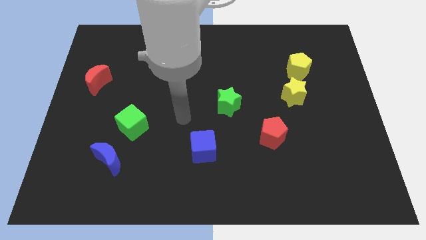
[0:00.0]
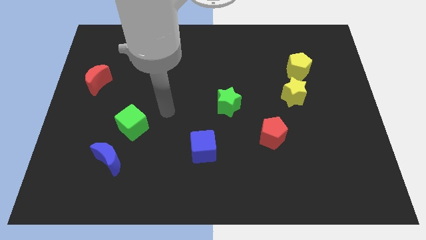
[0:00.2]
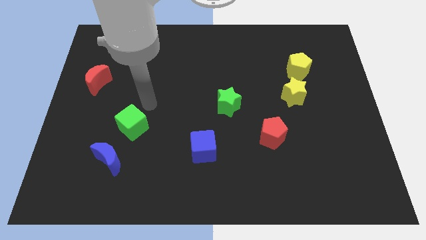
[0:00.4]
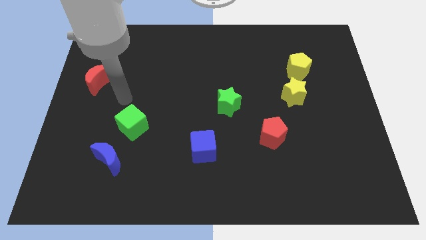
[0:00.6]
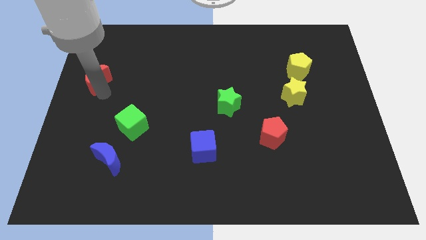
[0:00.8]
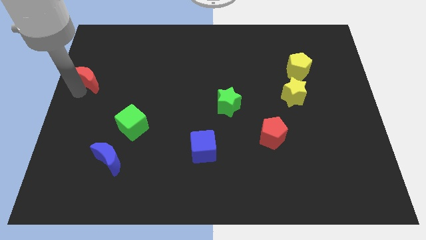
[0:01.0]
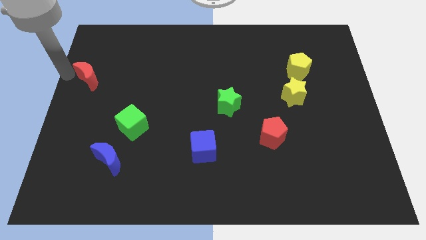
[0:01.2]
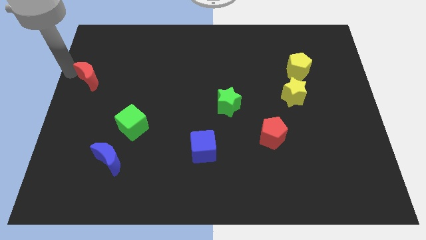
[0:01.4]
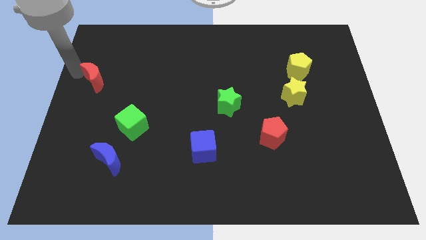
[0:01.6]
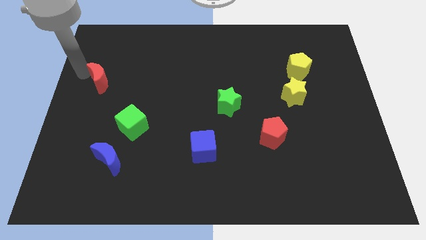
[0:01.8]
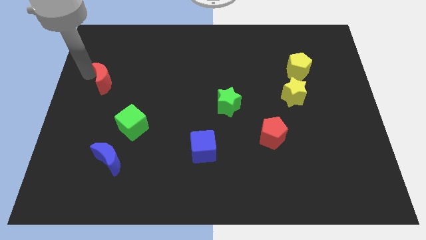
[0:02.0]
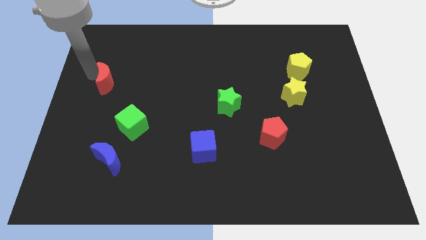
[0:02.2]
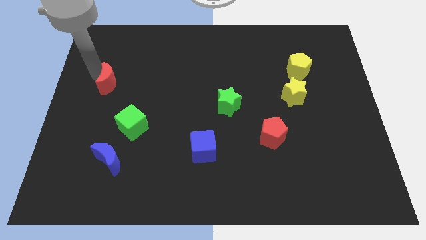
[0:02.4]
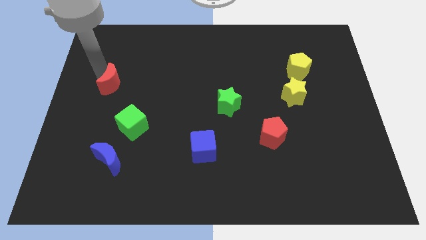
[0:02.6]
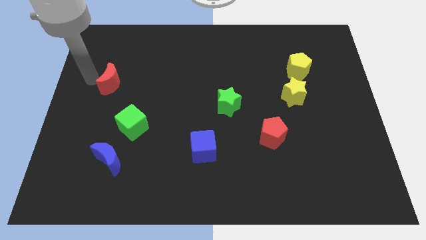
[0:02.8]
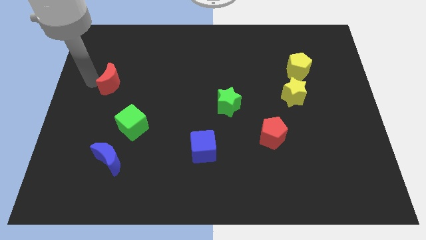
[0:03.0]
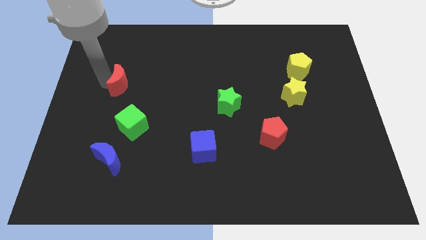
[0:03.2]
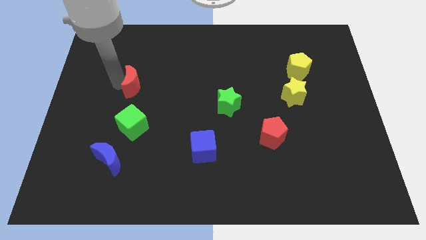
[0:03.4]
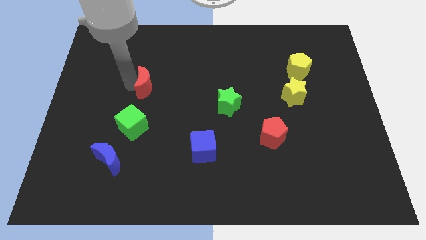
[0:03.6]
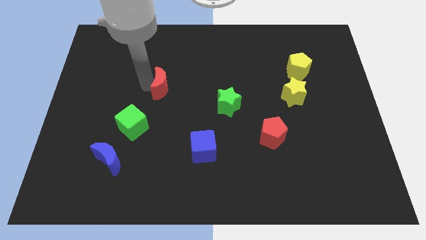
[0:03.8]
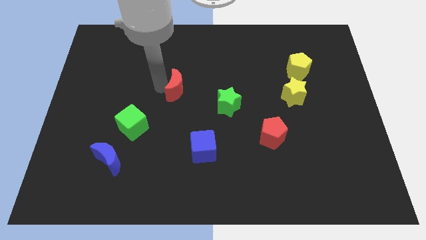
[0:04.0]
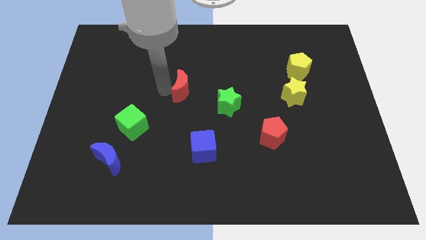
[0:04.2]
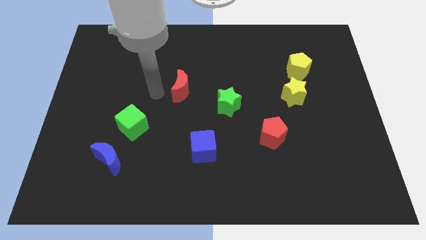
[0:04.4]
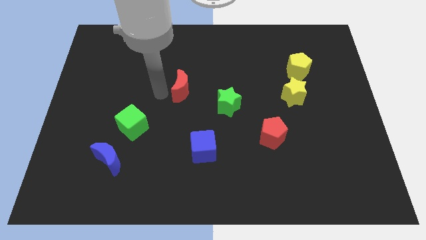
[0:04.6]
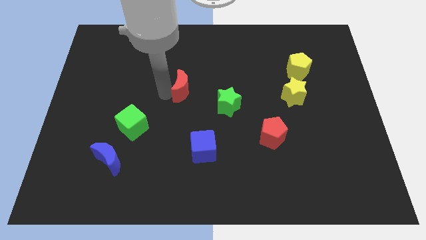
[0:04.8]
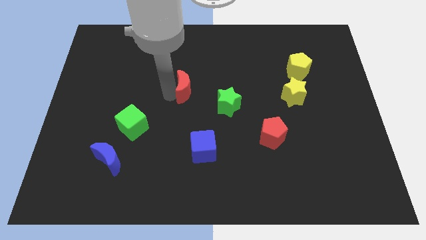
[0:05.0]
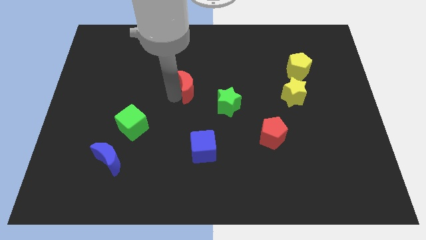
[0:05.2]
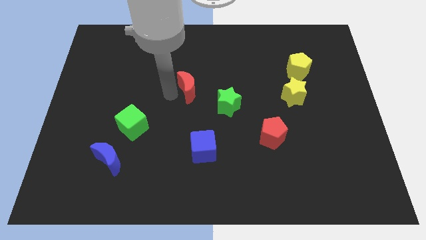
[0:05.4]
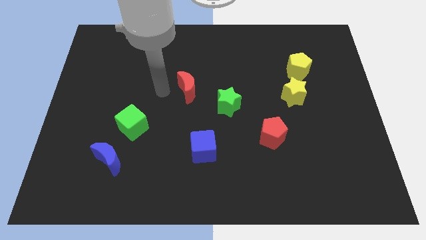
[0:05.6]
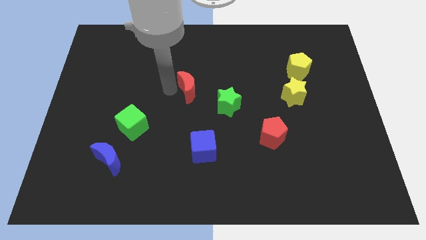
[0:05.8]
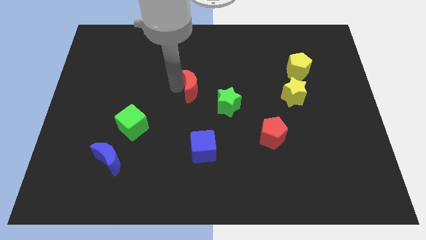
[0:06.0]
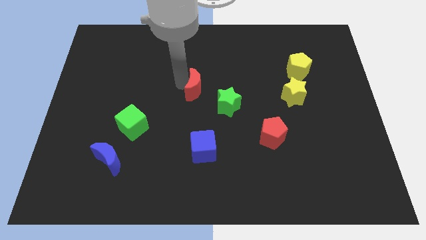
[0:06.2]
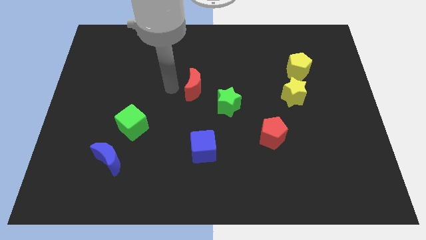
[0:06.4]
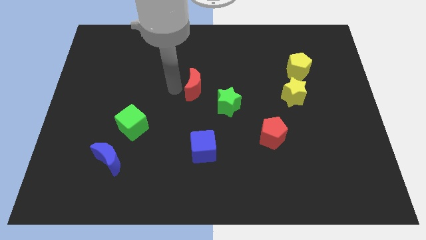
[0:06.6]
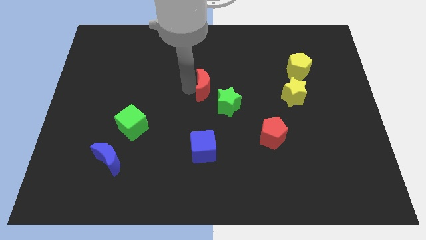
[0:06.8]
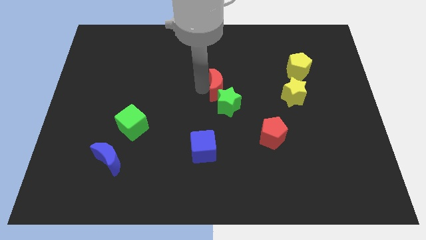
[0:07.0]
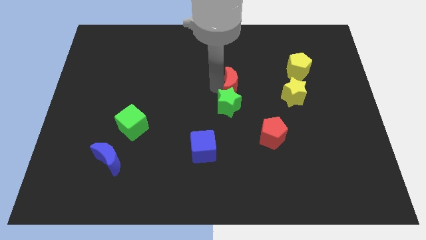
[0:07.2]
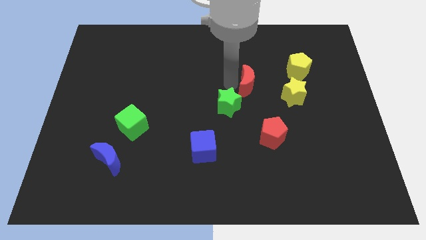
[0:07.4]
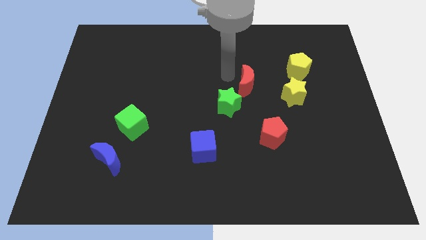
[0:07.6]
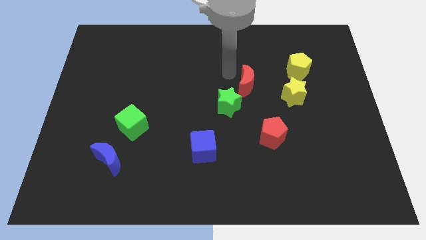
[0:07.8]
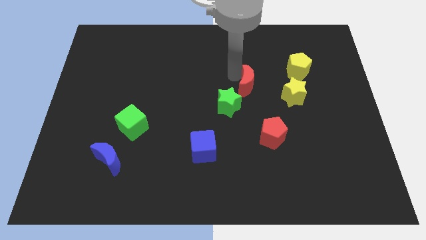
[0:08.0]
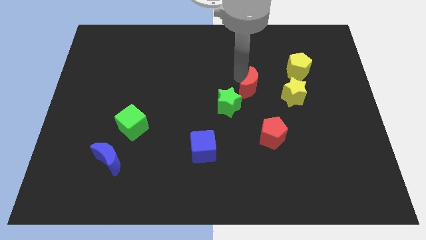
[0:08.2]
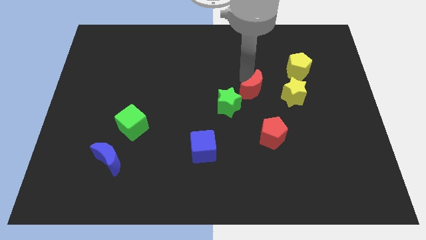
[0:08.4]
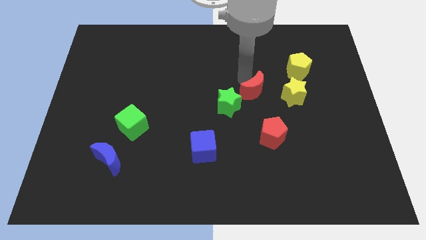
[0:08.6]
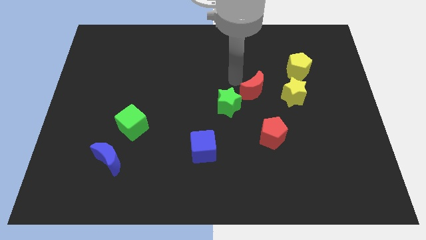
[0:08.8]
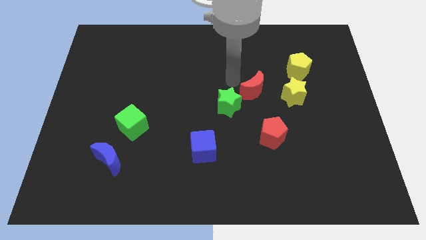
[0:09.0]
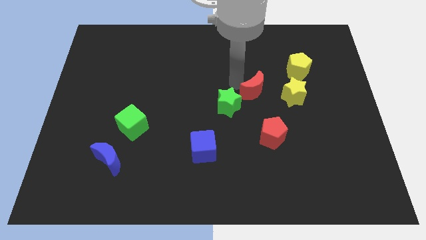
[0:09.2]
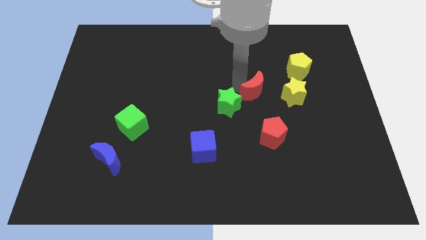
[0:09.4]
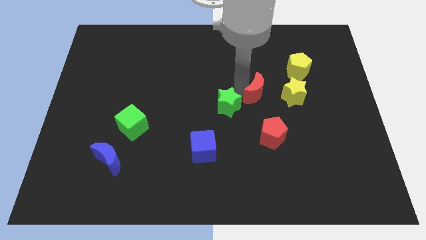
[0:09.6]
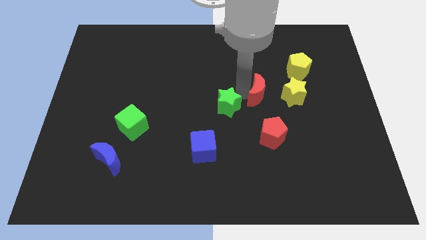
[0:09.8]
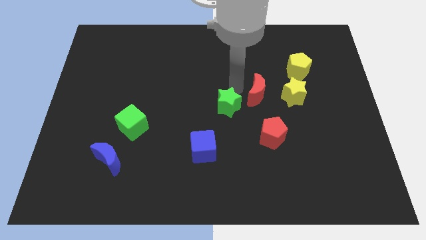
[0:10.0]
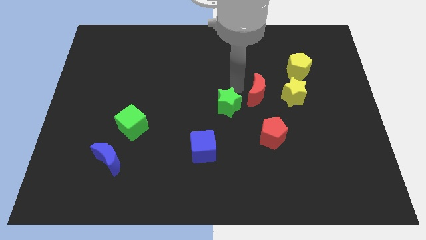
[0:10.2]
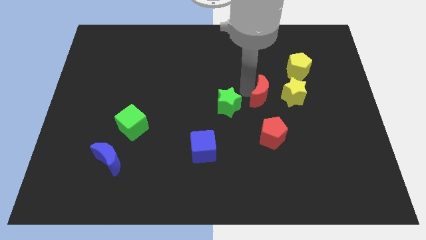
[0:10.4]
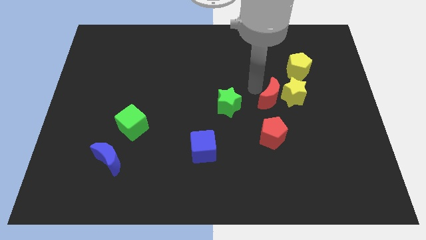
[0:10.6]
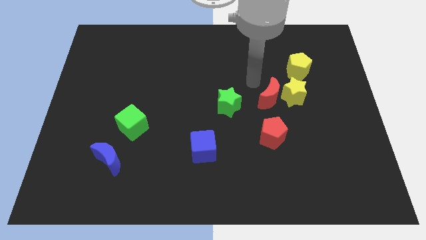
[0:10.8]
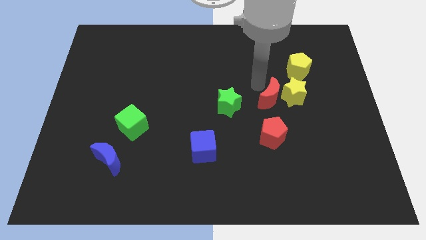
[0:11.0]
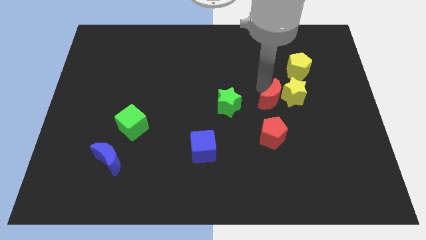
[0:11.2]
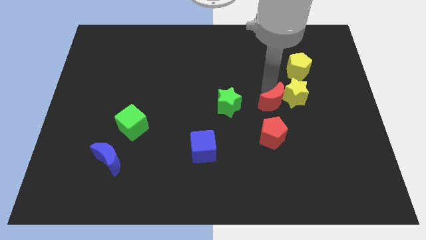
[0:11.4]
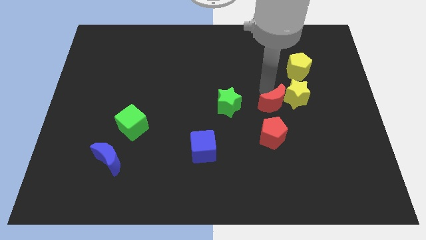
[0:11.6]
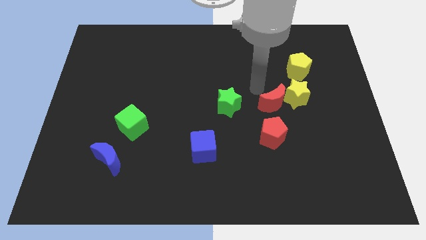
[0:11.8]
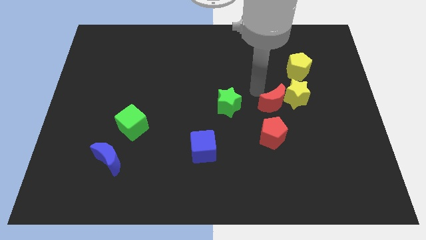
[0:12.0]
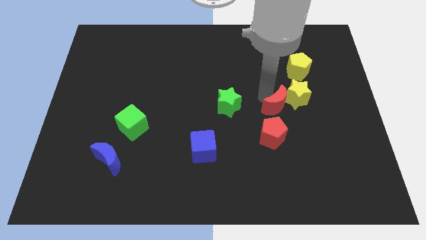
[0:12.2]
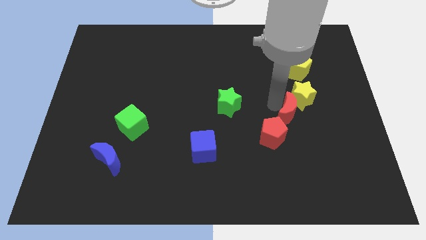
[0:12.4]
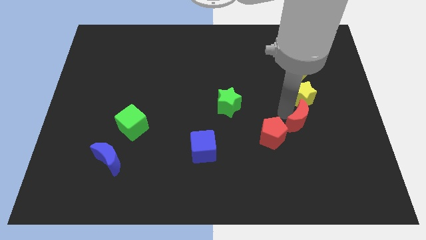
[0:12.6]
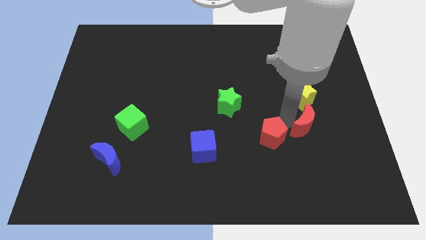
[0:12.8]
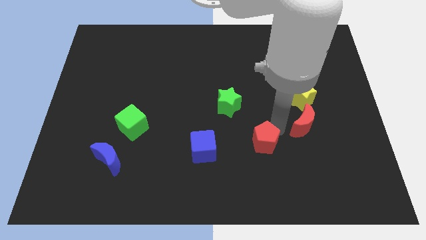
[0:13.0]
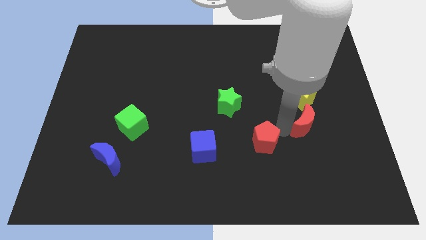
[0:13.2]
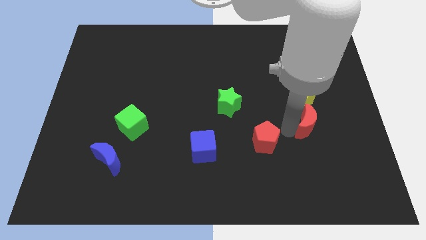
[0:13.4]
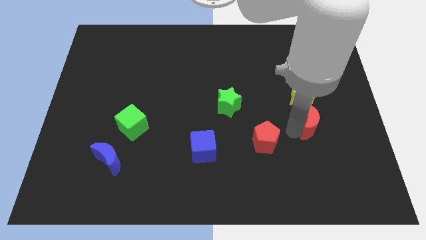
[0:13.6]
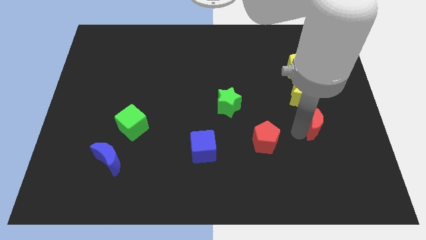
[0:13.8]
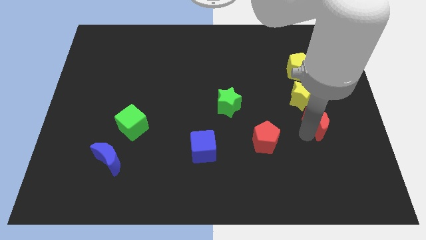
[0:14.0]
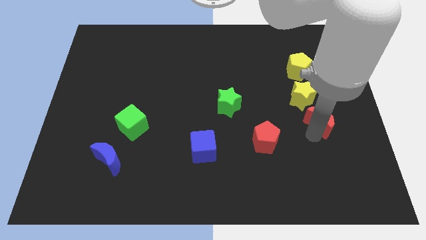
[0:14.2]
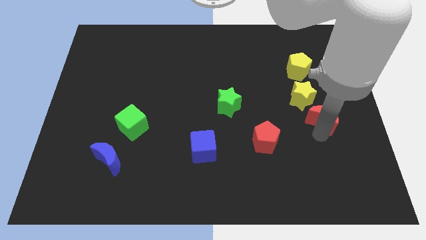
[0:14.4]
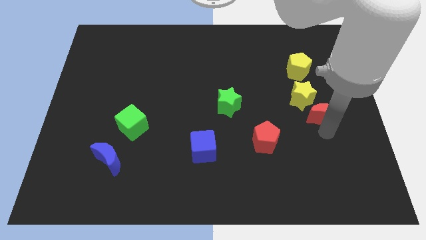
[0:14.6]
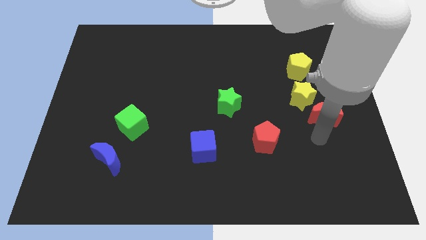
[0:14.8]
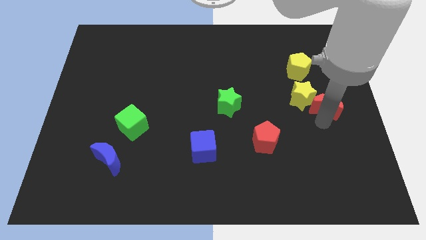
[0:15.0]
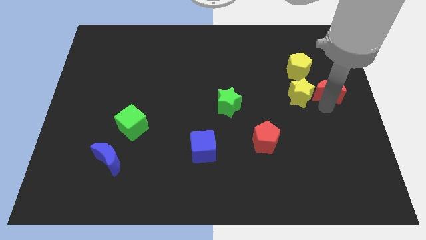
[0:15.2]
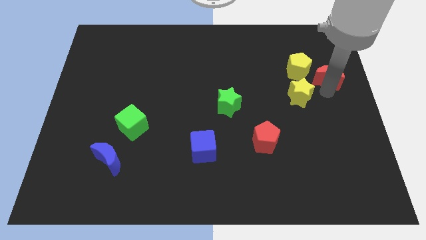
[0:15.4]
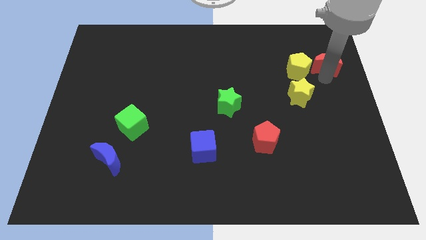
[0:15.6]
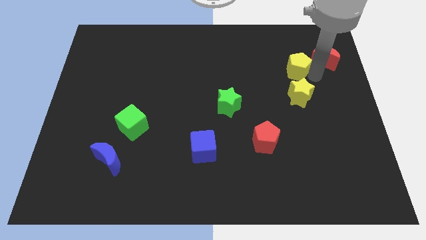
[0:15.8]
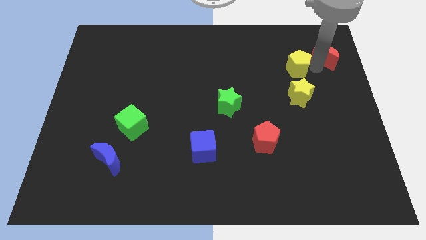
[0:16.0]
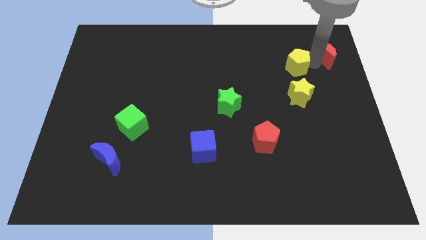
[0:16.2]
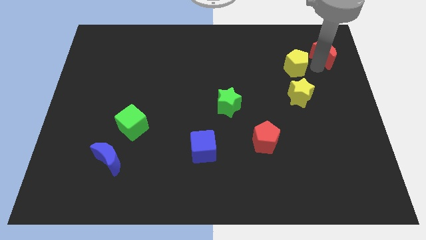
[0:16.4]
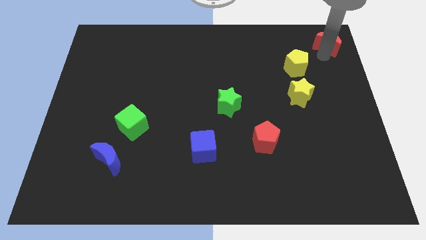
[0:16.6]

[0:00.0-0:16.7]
slide the red moon to the top right
